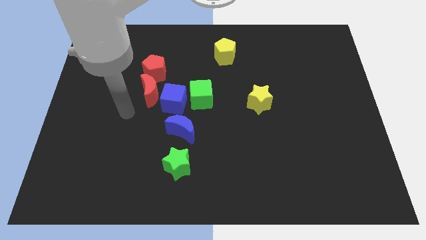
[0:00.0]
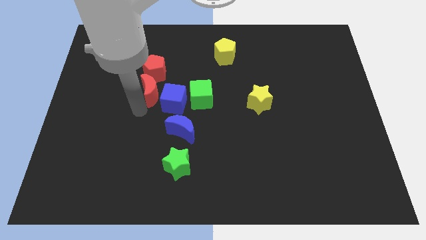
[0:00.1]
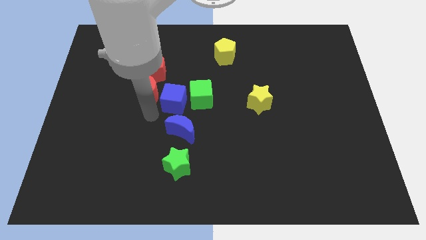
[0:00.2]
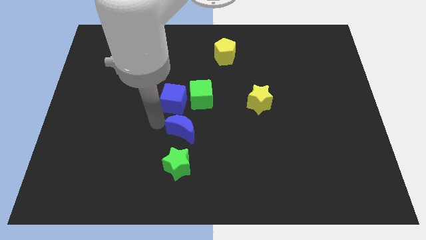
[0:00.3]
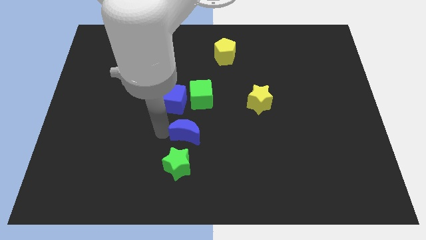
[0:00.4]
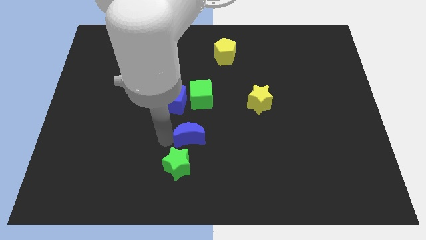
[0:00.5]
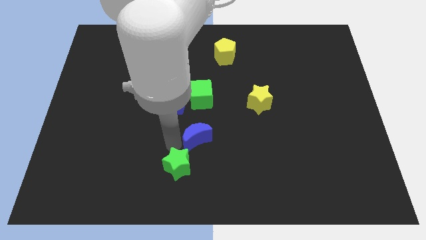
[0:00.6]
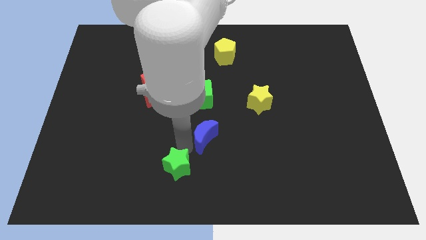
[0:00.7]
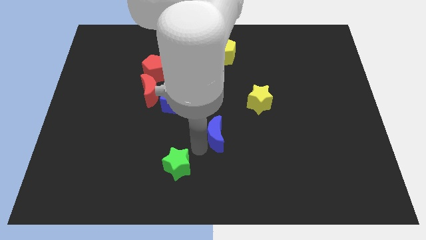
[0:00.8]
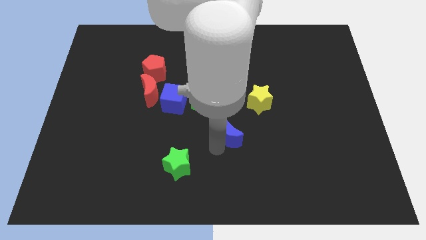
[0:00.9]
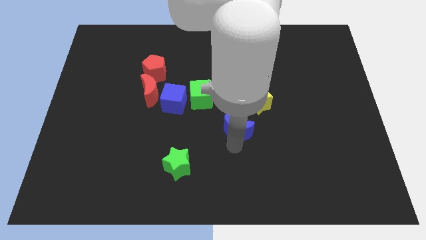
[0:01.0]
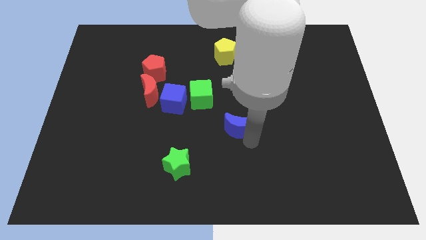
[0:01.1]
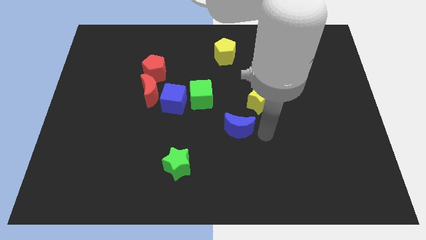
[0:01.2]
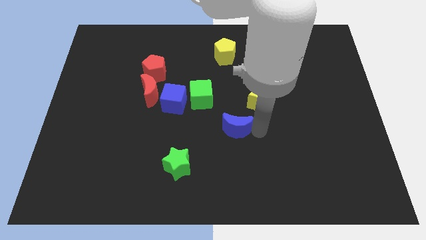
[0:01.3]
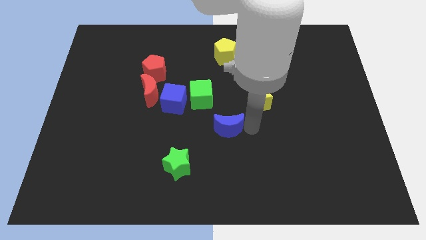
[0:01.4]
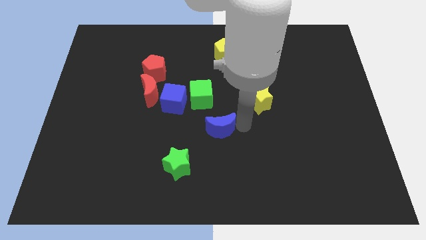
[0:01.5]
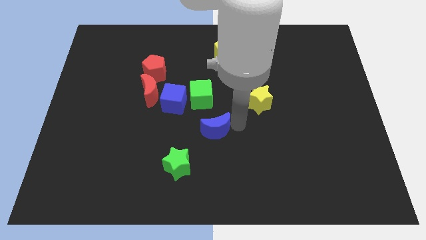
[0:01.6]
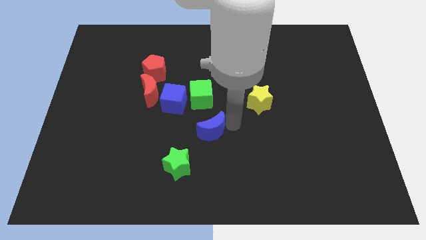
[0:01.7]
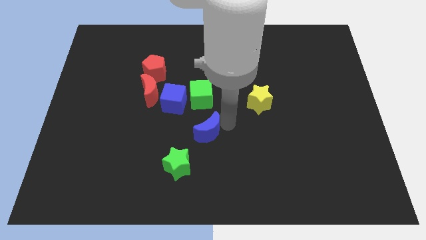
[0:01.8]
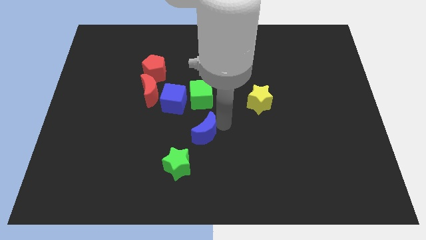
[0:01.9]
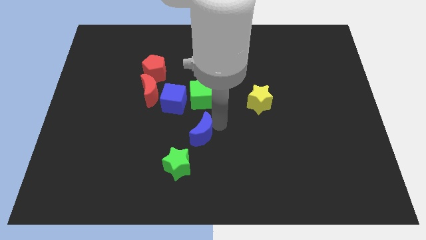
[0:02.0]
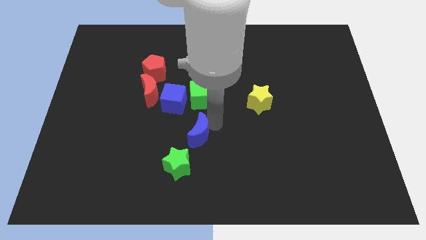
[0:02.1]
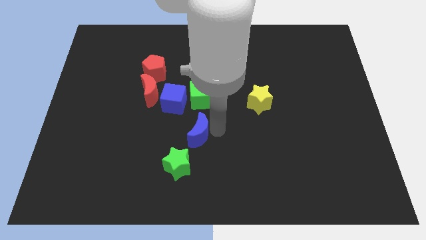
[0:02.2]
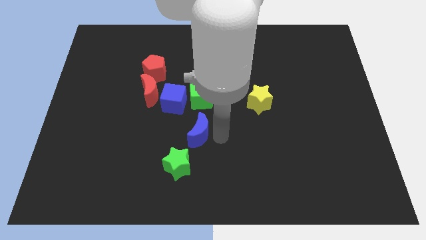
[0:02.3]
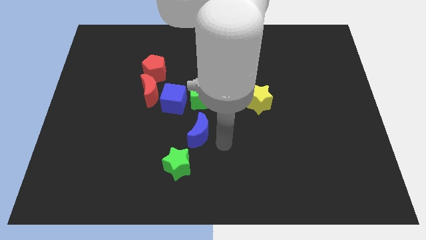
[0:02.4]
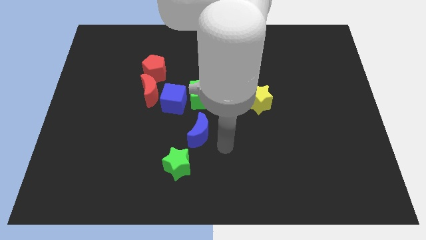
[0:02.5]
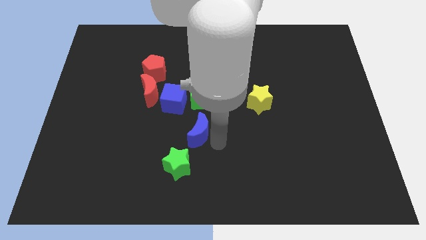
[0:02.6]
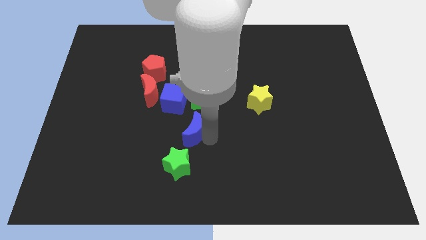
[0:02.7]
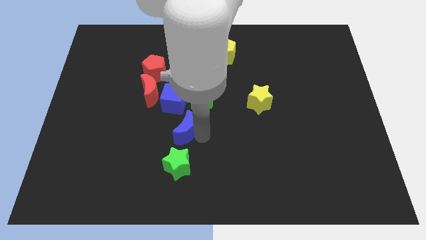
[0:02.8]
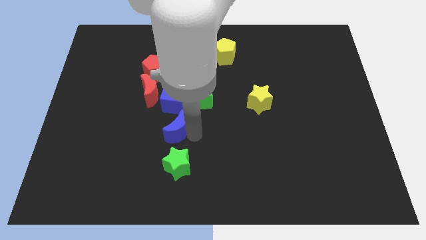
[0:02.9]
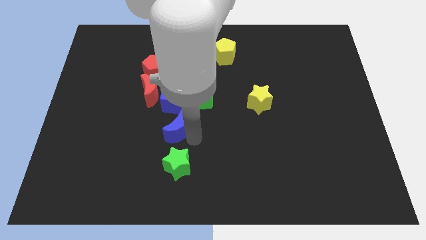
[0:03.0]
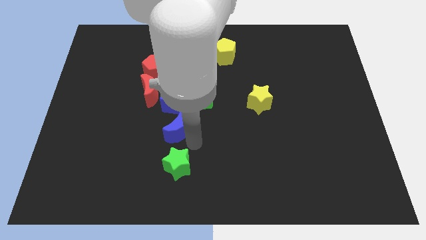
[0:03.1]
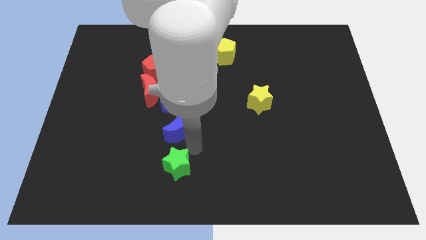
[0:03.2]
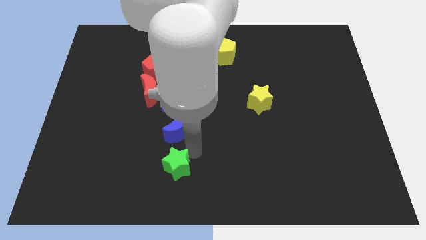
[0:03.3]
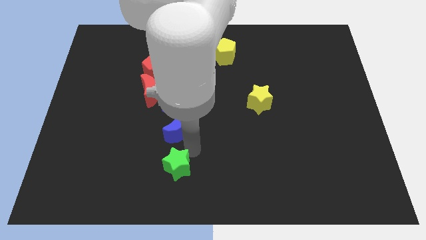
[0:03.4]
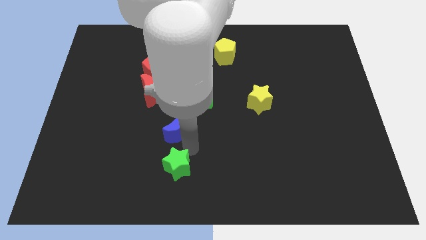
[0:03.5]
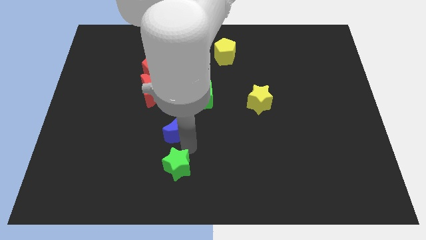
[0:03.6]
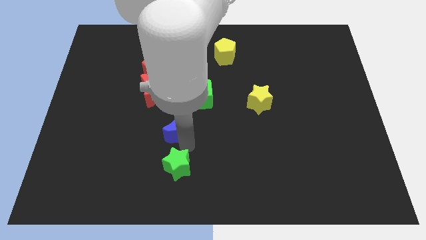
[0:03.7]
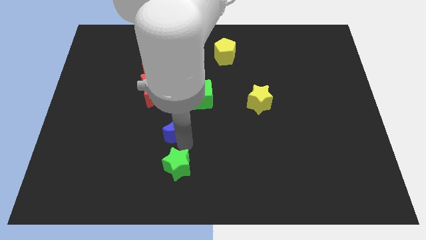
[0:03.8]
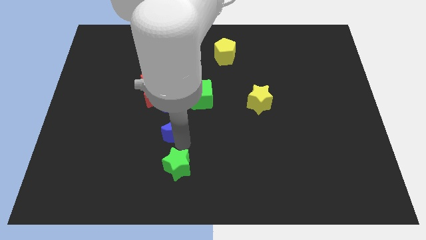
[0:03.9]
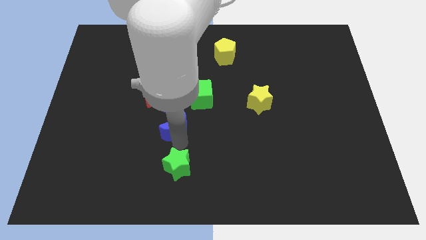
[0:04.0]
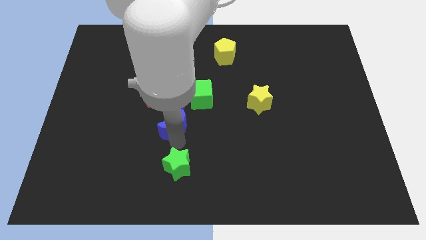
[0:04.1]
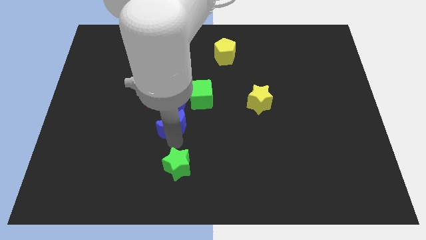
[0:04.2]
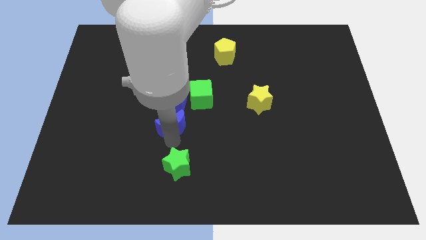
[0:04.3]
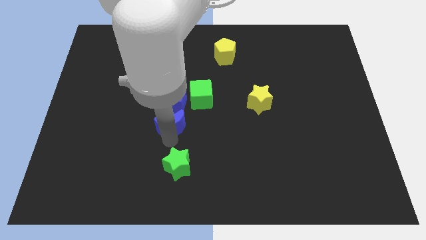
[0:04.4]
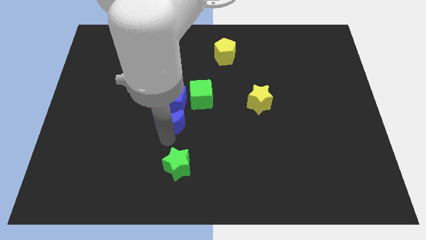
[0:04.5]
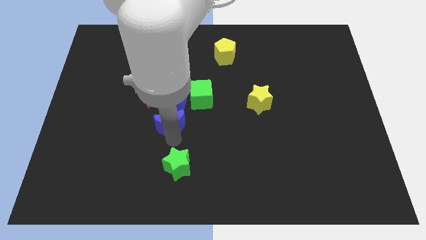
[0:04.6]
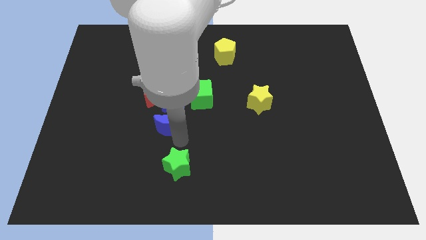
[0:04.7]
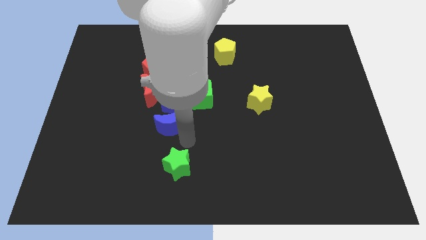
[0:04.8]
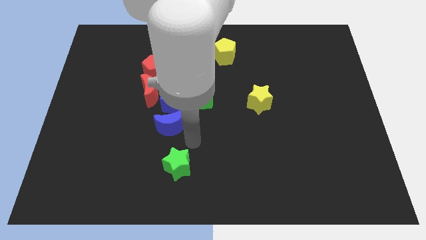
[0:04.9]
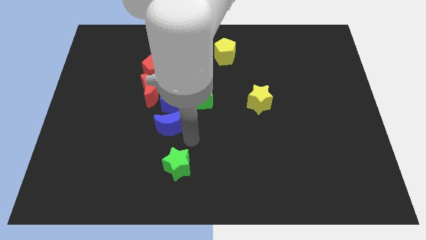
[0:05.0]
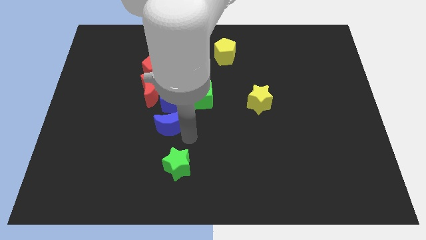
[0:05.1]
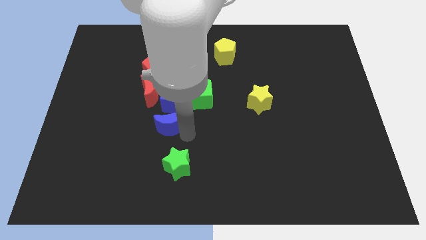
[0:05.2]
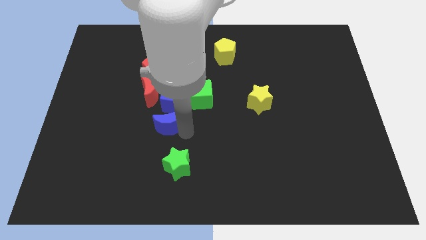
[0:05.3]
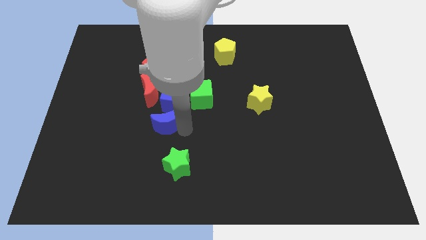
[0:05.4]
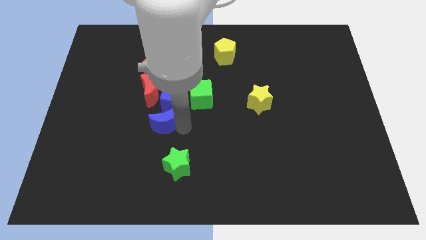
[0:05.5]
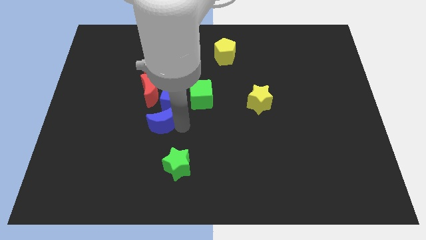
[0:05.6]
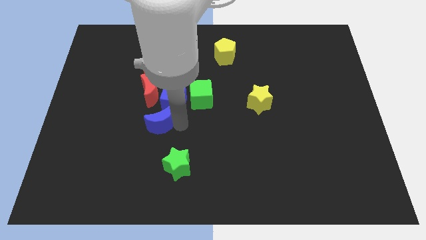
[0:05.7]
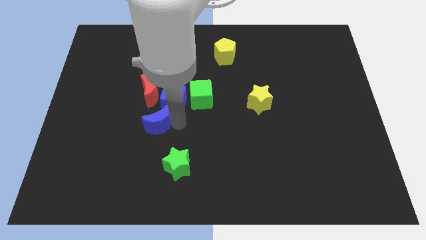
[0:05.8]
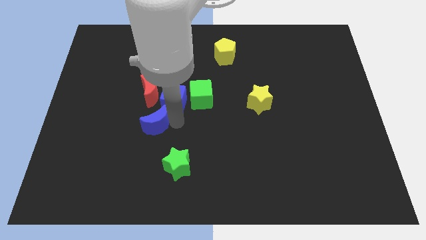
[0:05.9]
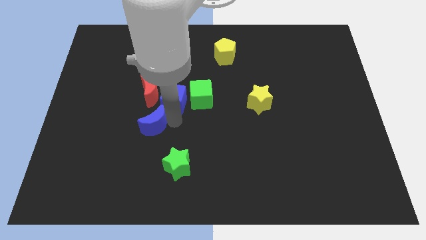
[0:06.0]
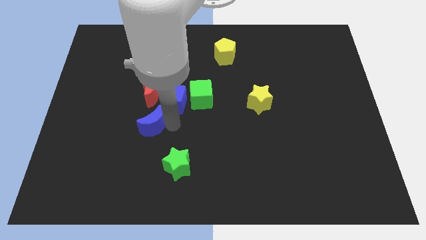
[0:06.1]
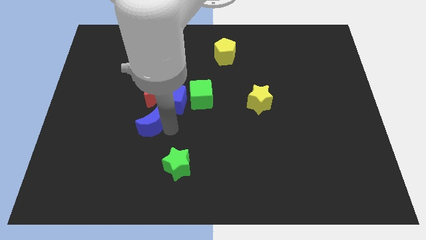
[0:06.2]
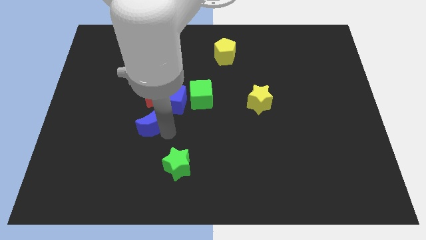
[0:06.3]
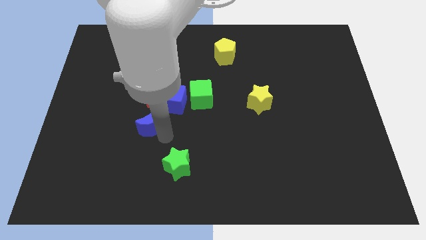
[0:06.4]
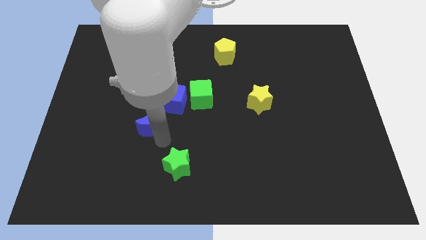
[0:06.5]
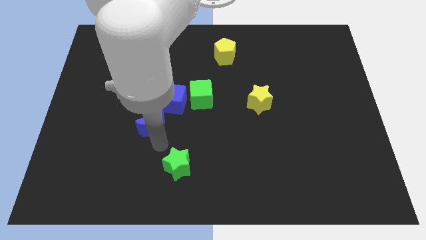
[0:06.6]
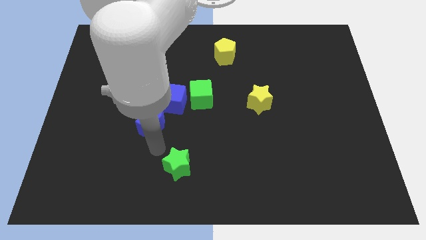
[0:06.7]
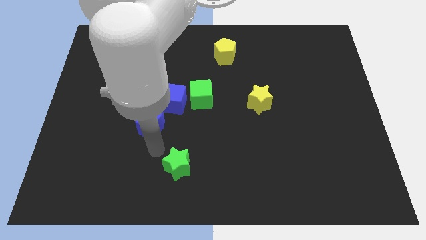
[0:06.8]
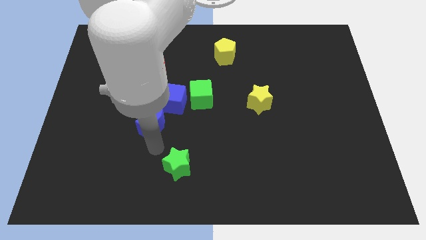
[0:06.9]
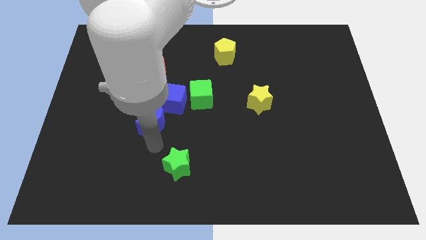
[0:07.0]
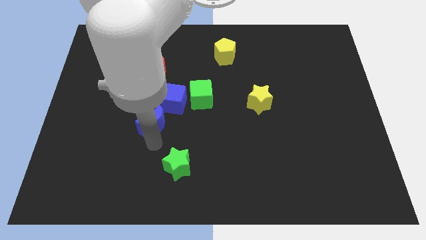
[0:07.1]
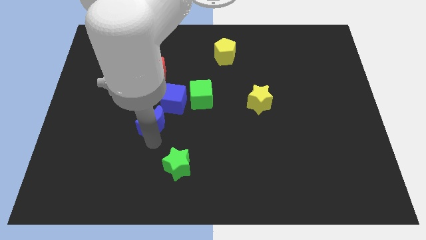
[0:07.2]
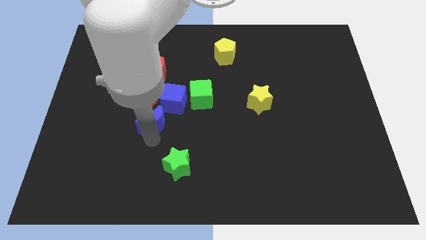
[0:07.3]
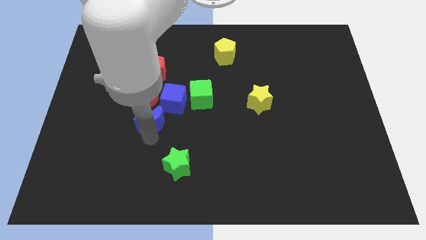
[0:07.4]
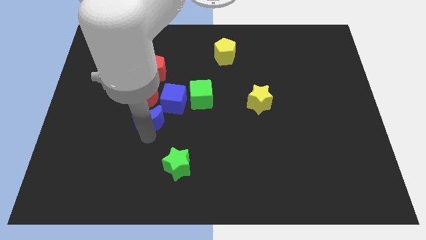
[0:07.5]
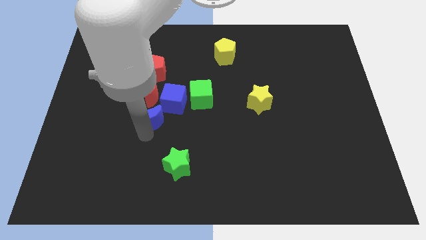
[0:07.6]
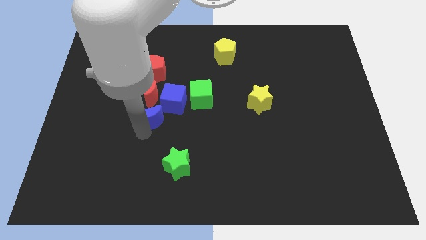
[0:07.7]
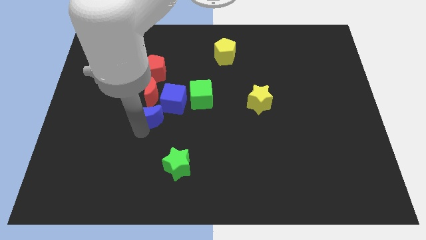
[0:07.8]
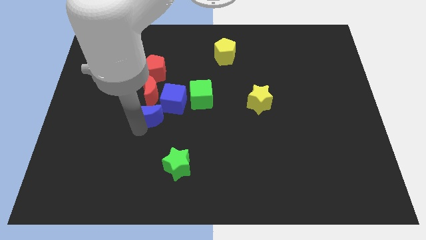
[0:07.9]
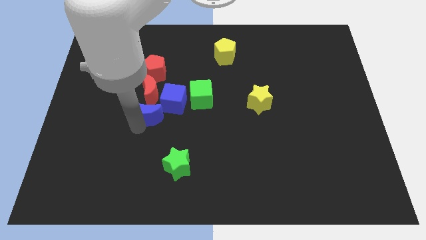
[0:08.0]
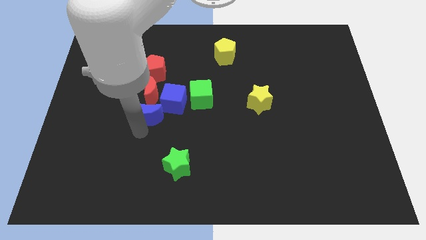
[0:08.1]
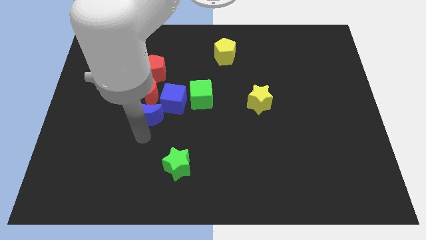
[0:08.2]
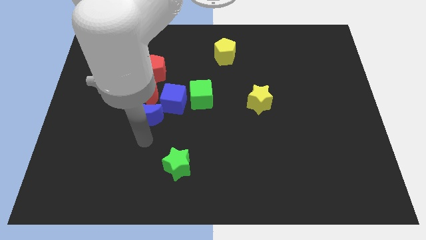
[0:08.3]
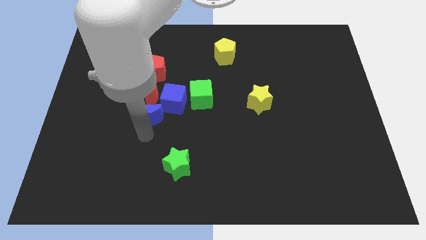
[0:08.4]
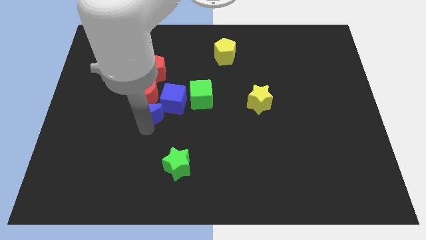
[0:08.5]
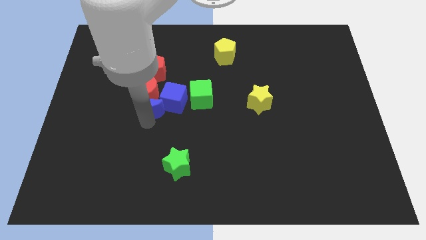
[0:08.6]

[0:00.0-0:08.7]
push the blue moon close to the red moon
